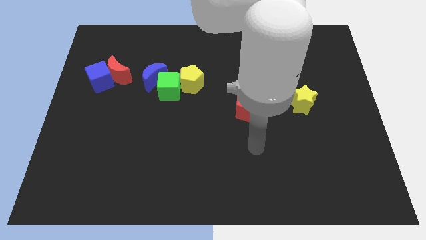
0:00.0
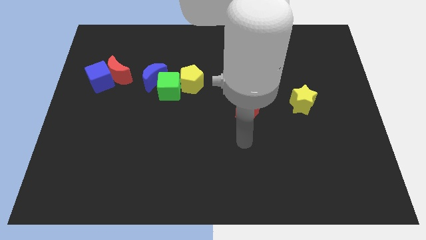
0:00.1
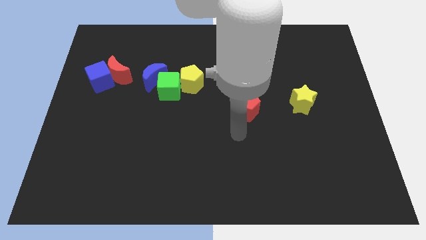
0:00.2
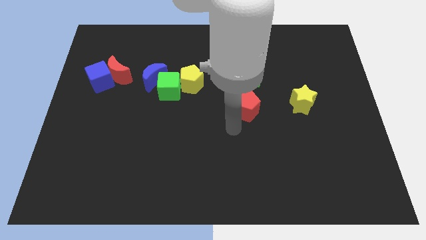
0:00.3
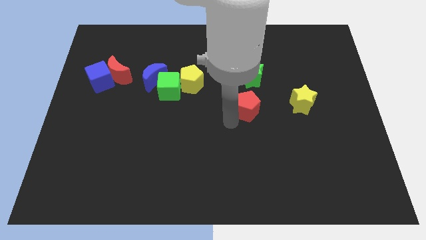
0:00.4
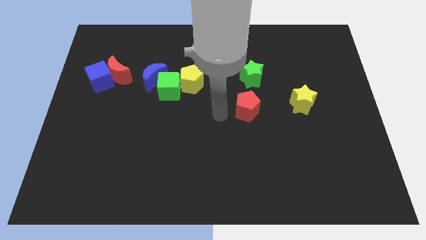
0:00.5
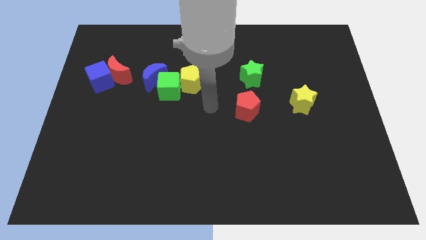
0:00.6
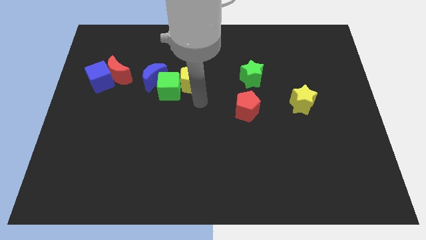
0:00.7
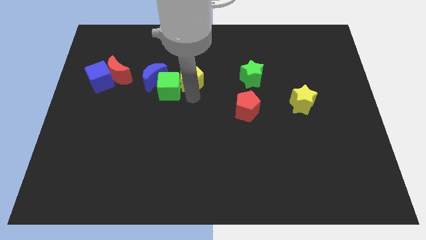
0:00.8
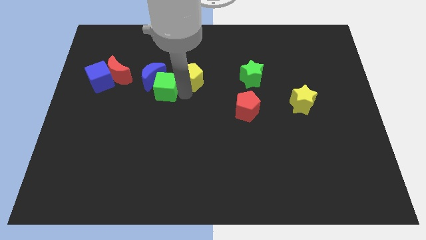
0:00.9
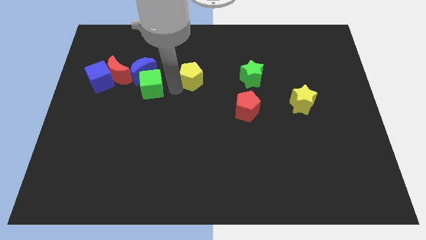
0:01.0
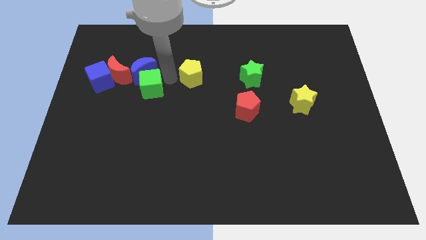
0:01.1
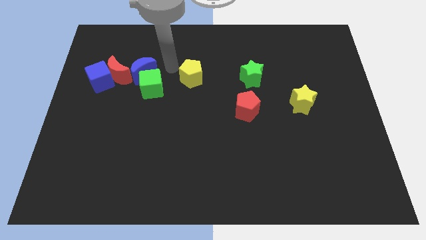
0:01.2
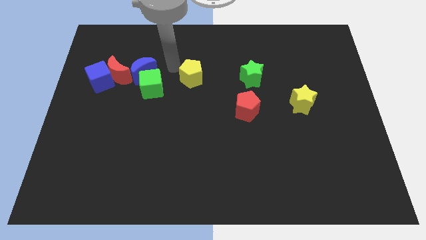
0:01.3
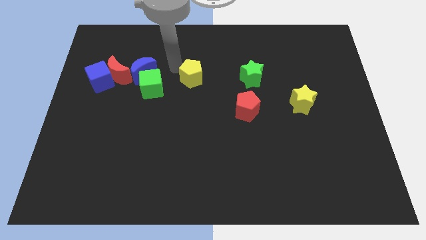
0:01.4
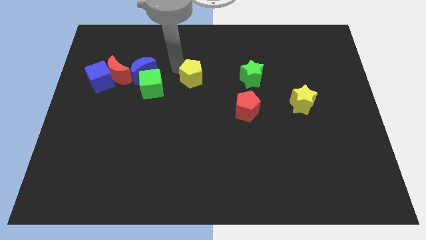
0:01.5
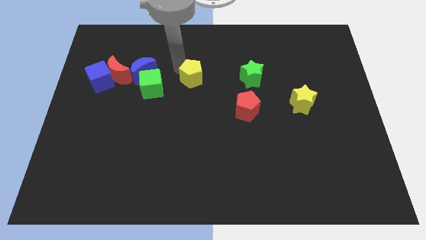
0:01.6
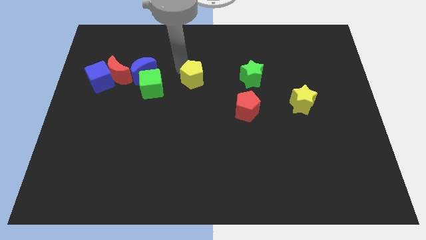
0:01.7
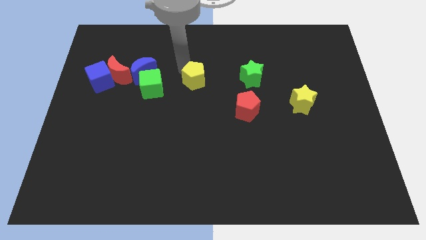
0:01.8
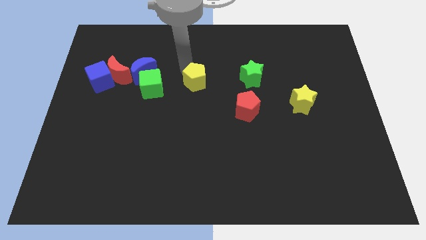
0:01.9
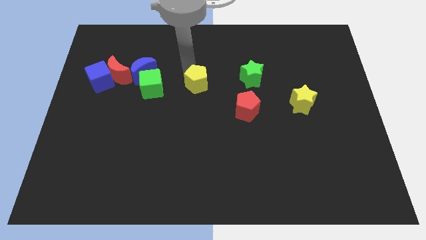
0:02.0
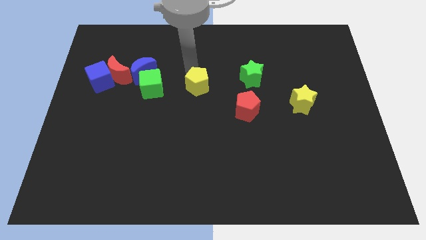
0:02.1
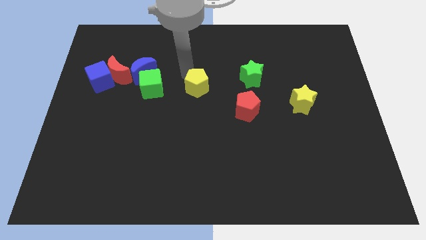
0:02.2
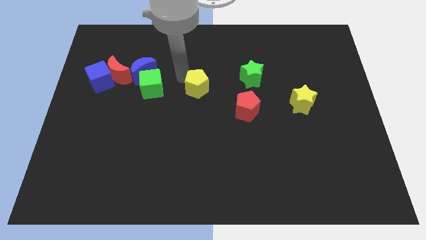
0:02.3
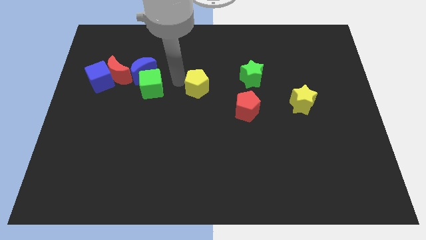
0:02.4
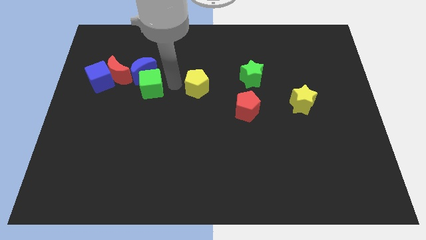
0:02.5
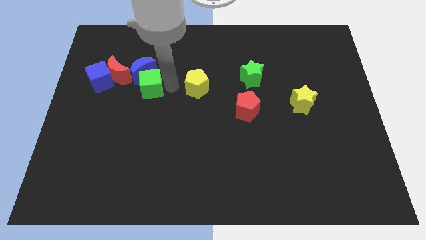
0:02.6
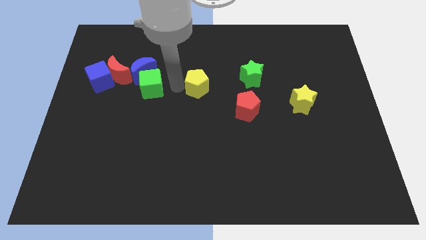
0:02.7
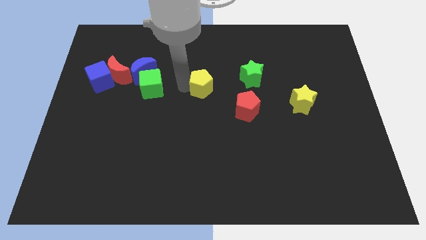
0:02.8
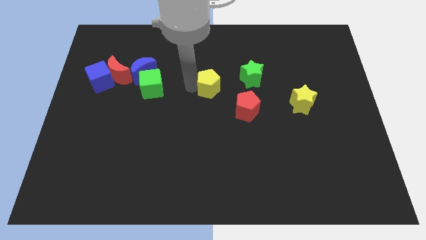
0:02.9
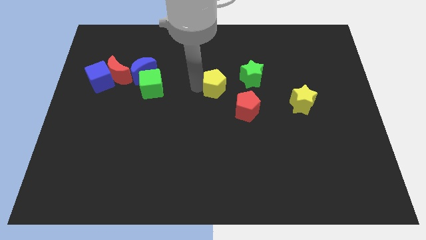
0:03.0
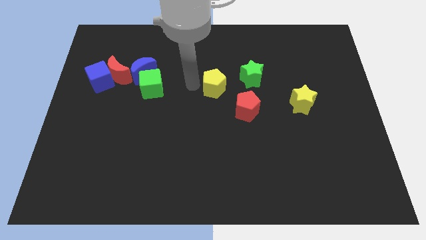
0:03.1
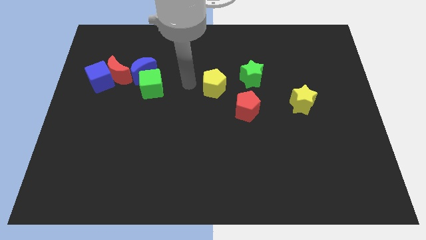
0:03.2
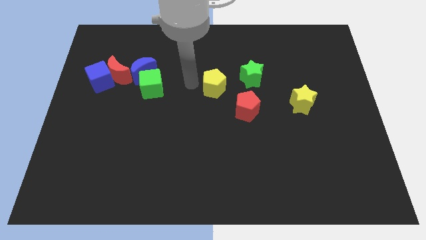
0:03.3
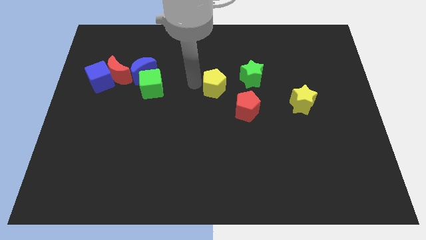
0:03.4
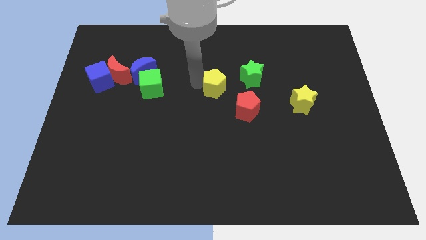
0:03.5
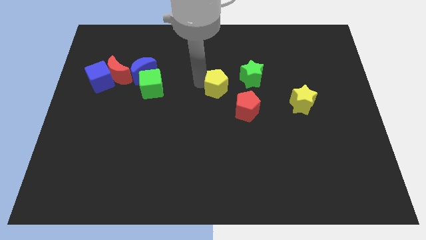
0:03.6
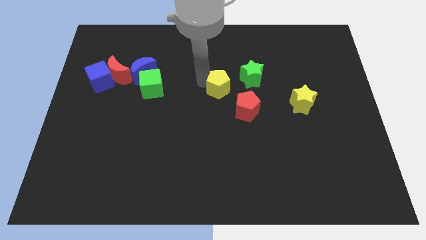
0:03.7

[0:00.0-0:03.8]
slide the yellow pentagon right somewhat

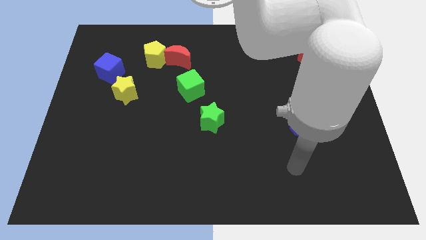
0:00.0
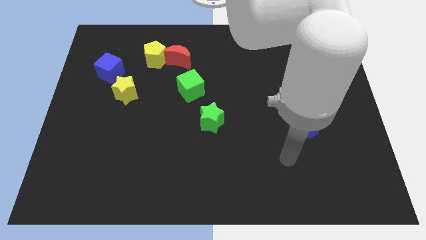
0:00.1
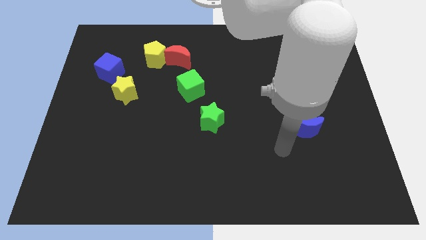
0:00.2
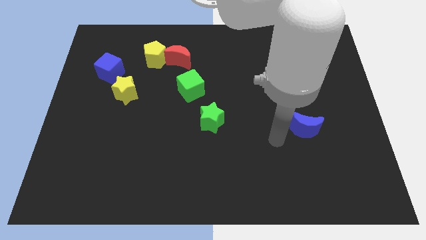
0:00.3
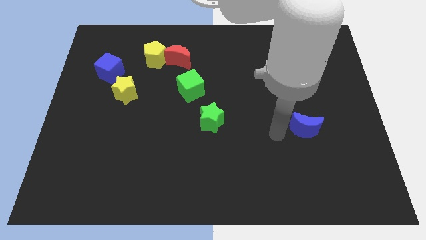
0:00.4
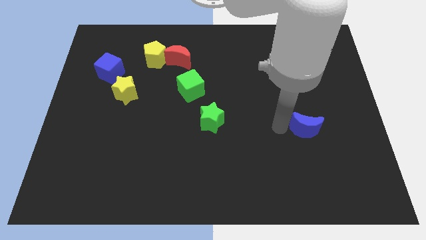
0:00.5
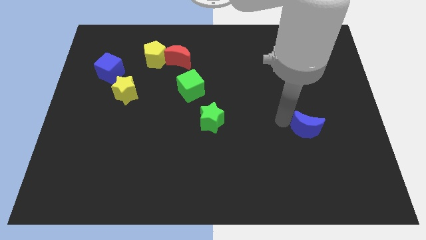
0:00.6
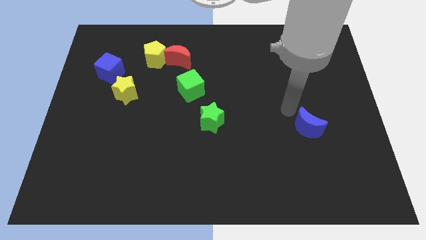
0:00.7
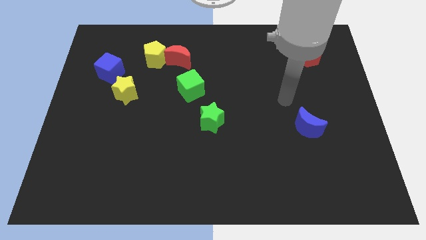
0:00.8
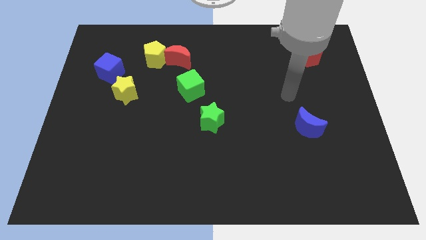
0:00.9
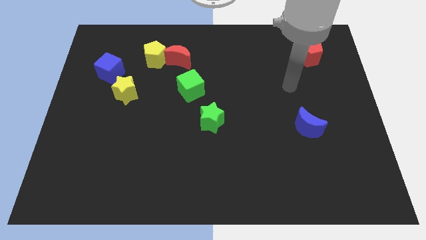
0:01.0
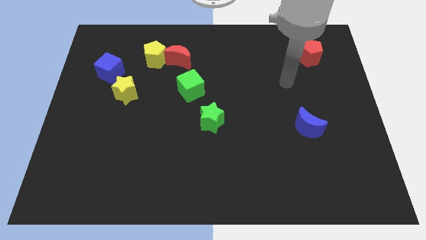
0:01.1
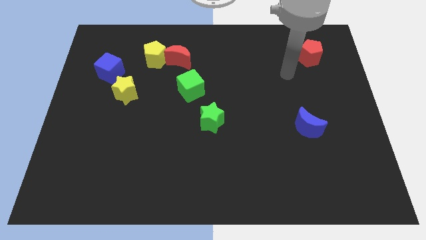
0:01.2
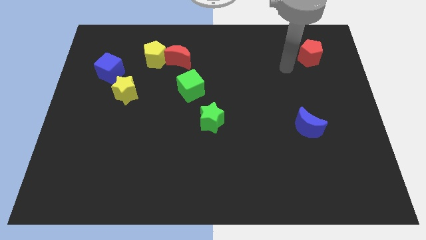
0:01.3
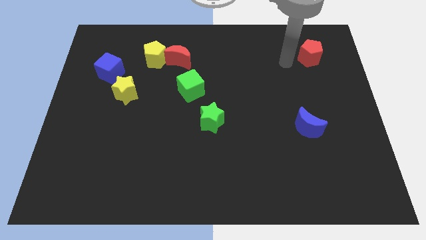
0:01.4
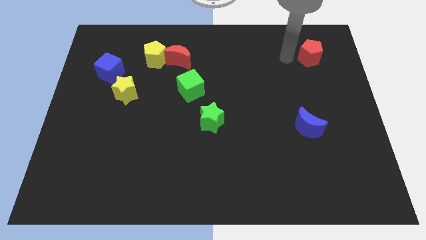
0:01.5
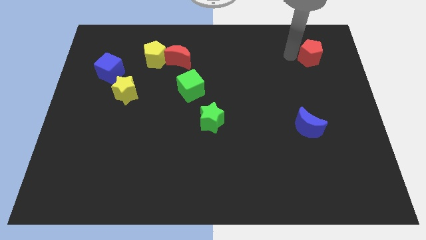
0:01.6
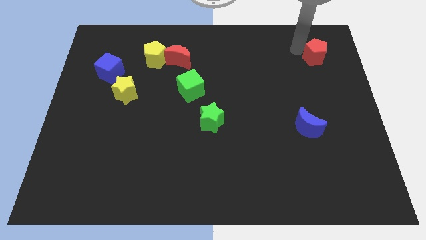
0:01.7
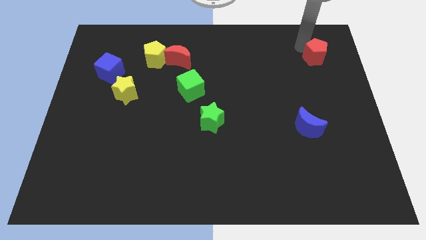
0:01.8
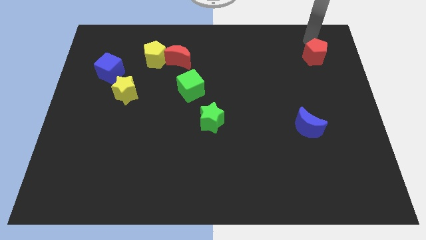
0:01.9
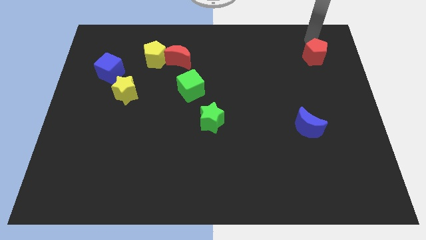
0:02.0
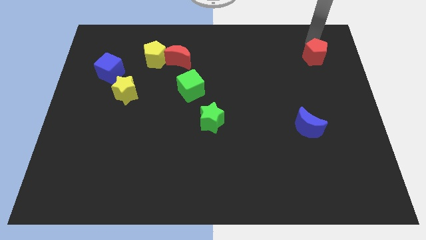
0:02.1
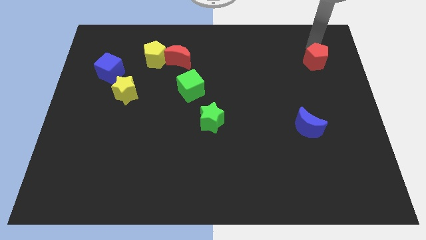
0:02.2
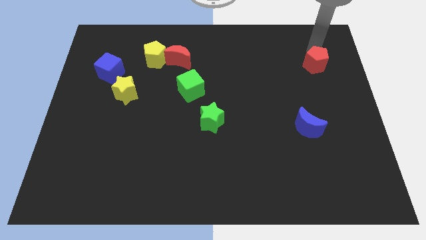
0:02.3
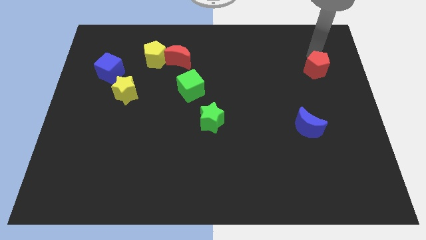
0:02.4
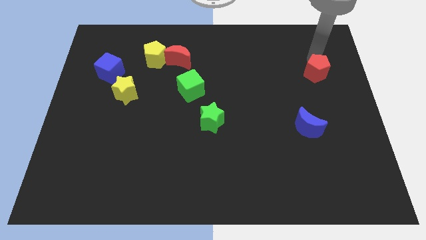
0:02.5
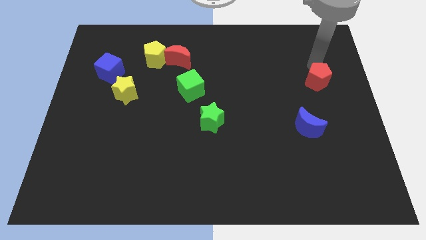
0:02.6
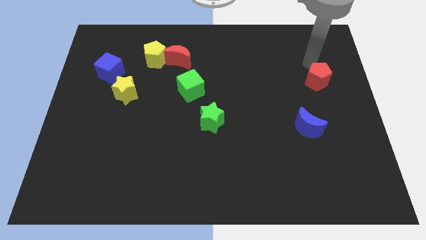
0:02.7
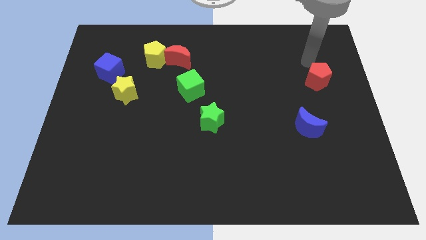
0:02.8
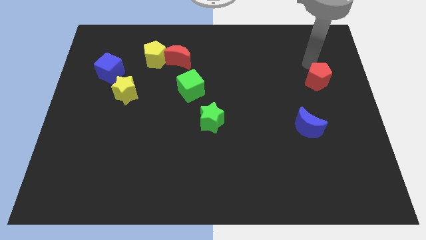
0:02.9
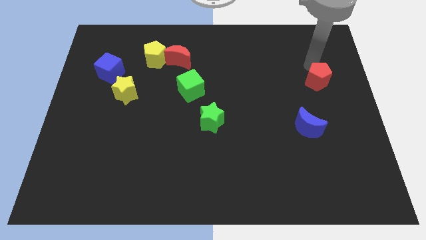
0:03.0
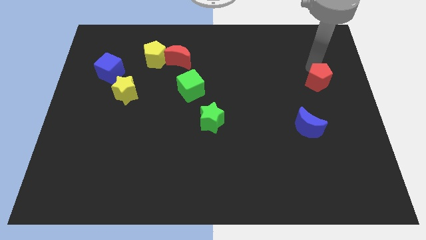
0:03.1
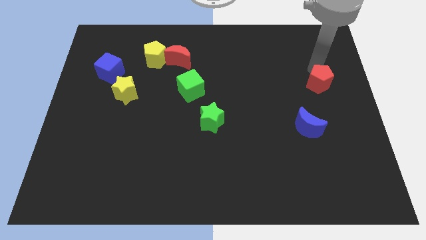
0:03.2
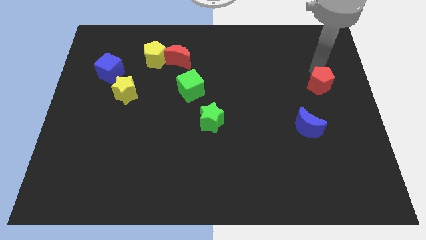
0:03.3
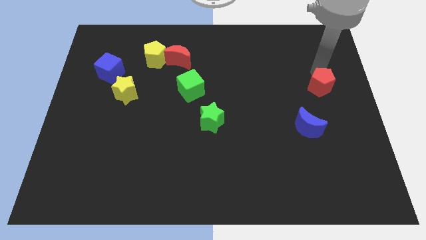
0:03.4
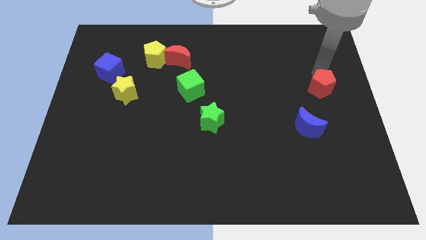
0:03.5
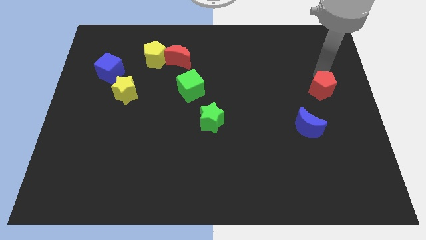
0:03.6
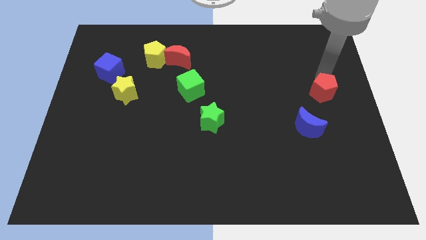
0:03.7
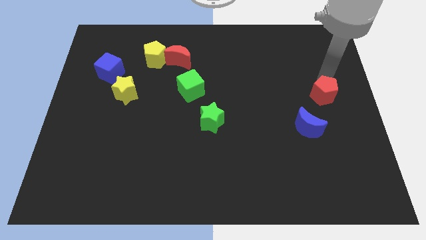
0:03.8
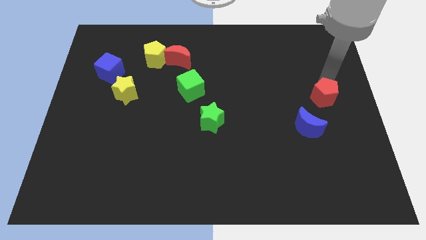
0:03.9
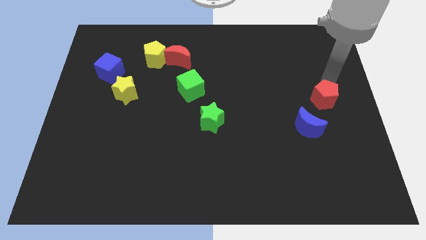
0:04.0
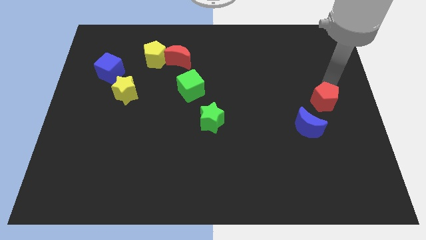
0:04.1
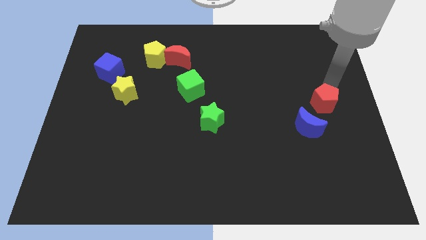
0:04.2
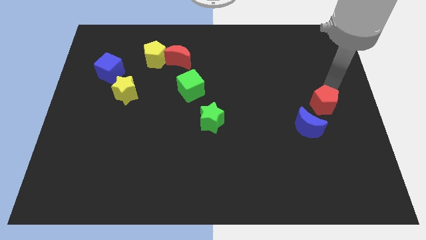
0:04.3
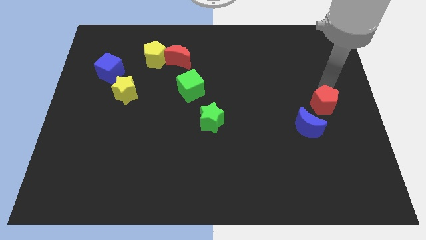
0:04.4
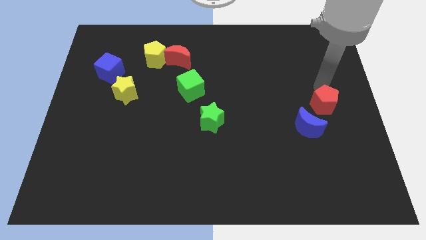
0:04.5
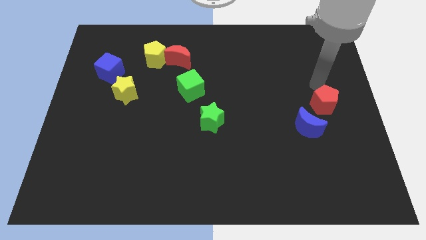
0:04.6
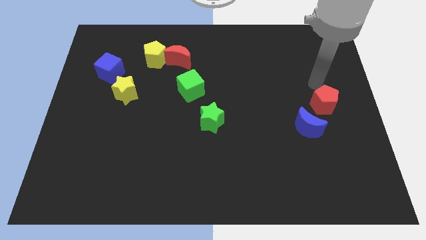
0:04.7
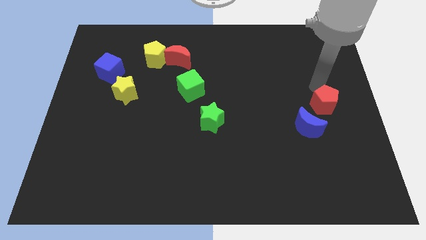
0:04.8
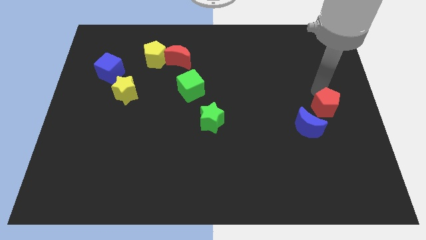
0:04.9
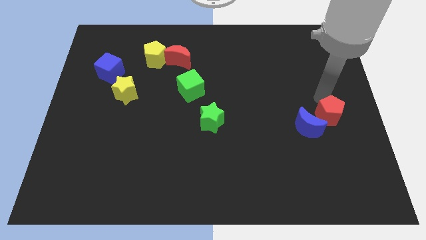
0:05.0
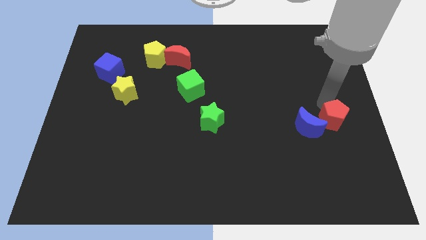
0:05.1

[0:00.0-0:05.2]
push the red pentagon downwards
